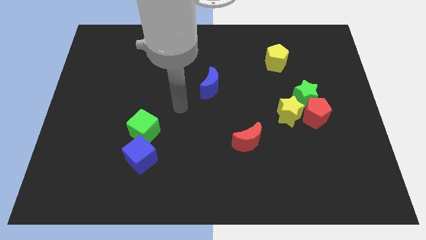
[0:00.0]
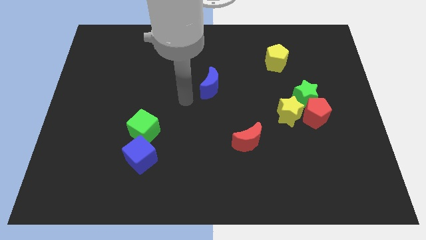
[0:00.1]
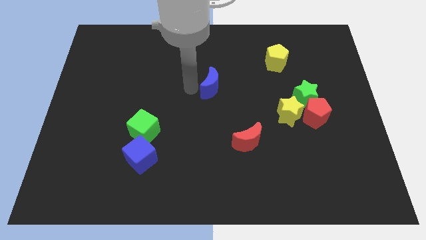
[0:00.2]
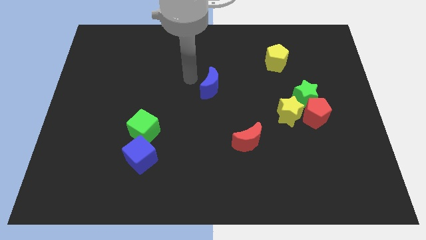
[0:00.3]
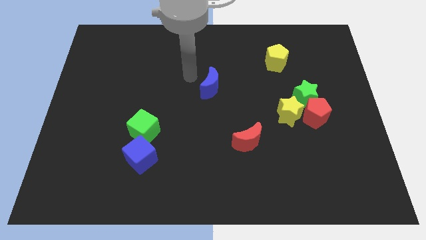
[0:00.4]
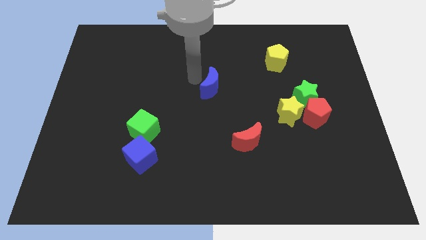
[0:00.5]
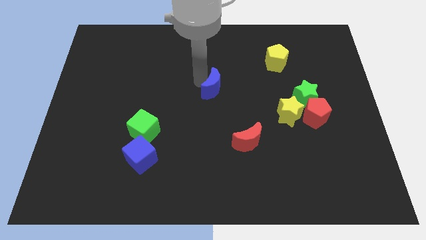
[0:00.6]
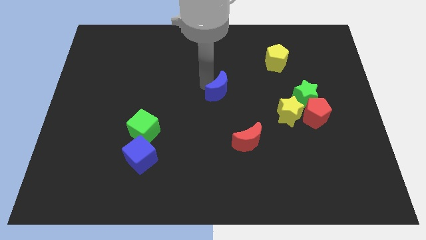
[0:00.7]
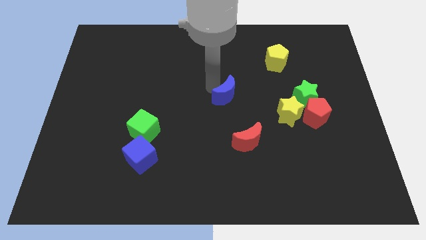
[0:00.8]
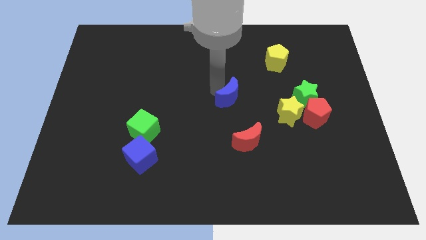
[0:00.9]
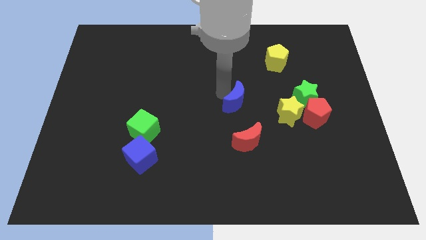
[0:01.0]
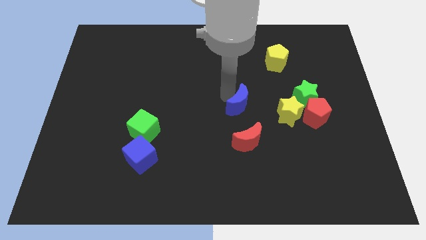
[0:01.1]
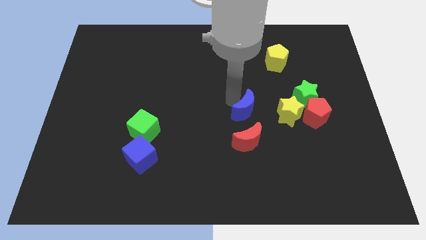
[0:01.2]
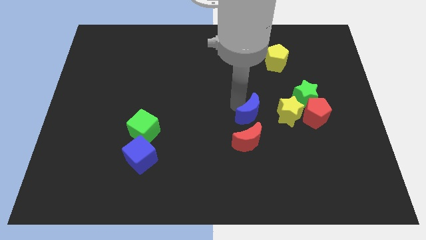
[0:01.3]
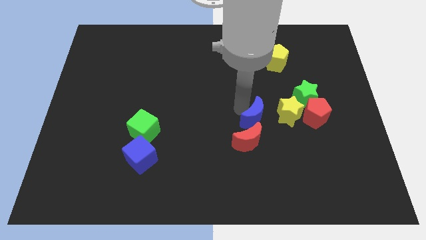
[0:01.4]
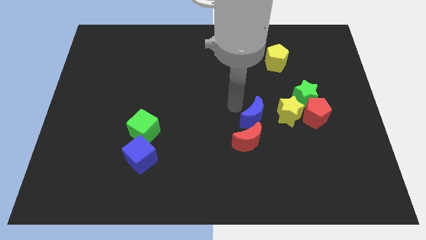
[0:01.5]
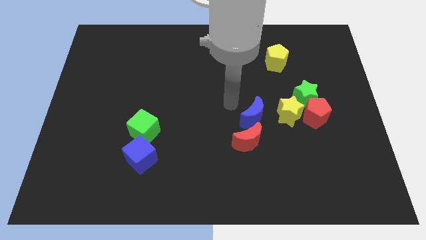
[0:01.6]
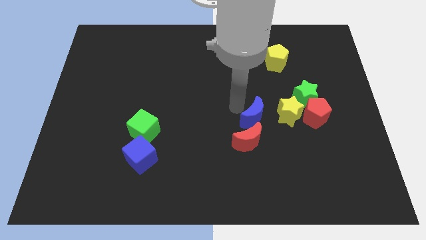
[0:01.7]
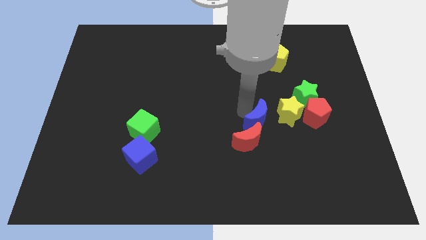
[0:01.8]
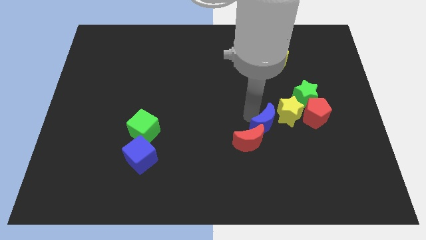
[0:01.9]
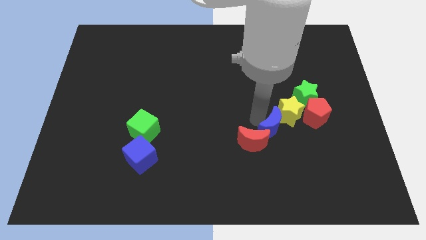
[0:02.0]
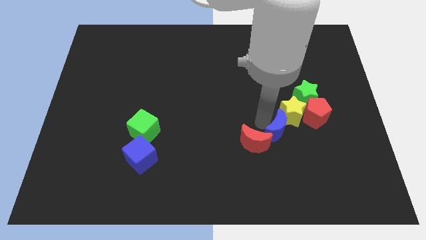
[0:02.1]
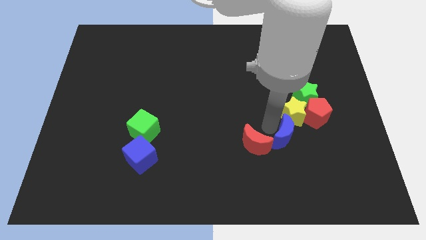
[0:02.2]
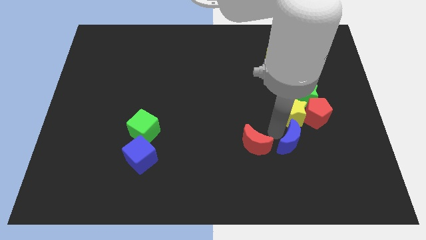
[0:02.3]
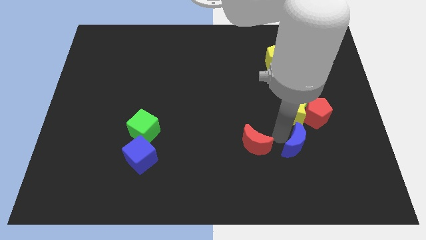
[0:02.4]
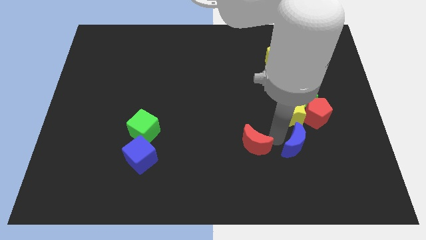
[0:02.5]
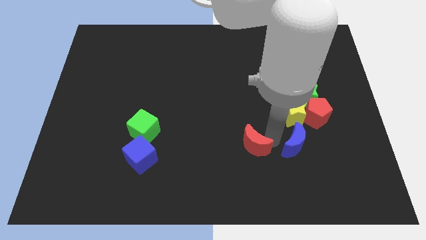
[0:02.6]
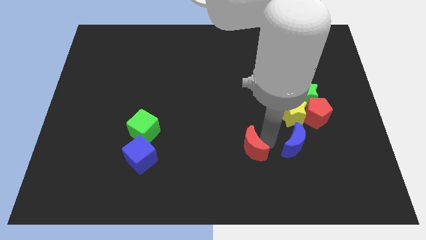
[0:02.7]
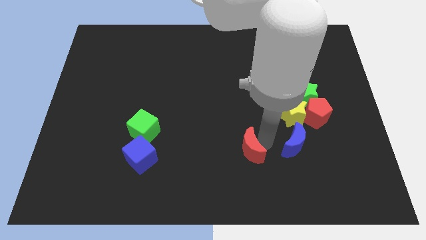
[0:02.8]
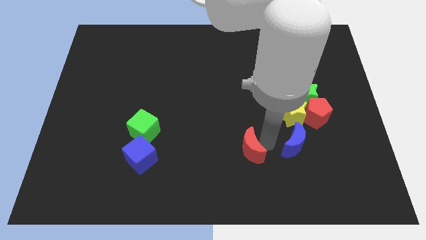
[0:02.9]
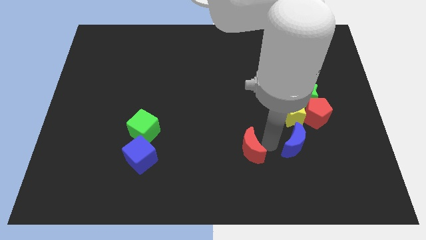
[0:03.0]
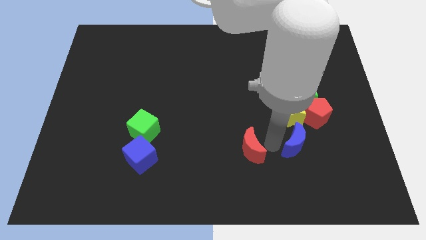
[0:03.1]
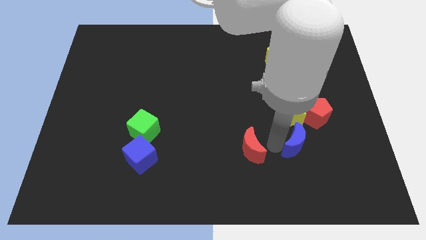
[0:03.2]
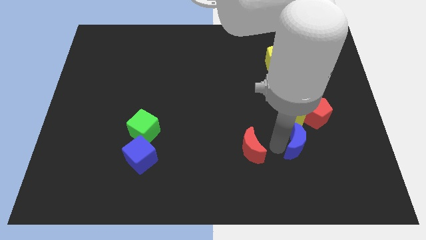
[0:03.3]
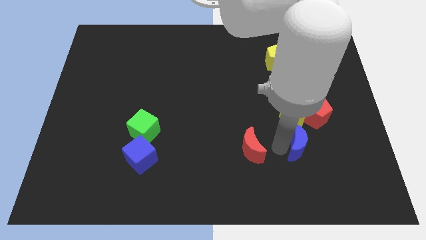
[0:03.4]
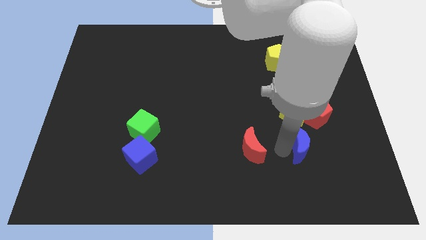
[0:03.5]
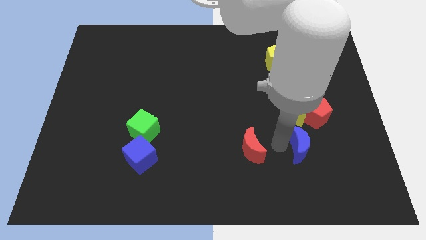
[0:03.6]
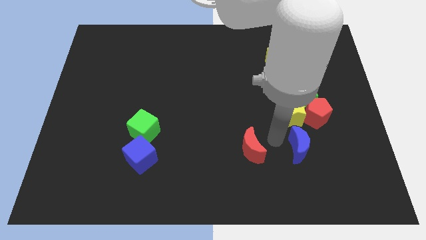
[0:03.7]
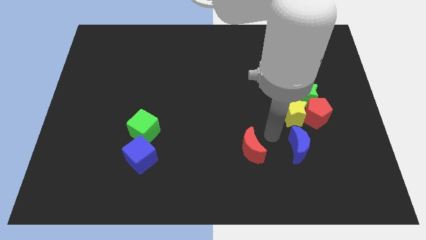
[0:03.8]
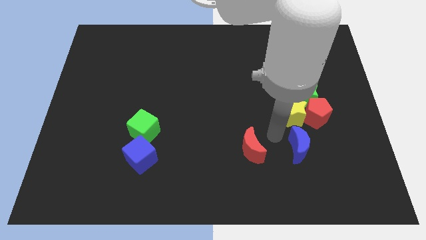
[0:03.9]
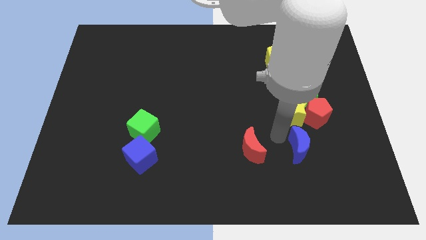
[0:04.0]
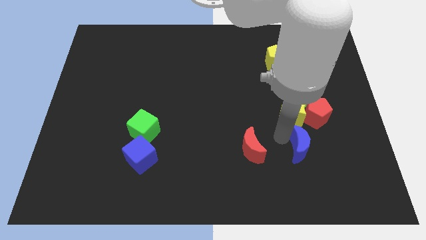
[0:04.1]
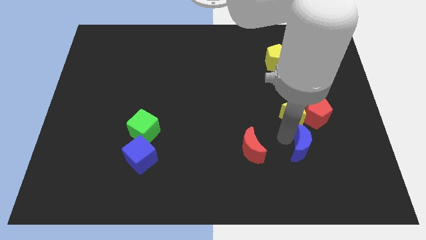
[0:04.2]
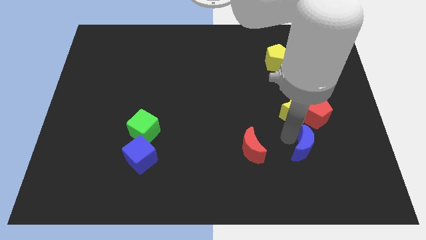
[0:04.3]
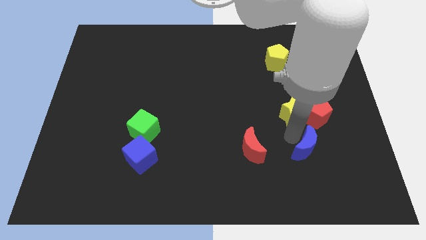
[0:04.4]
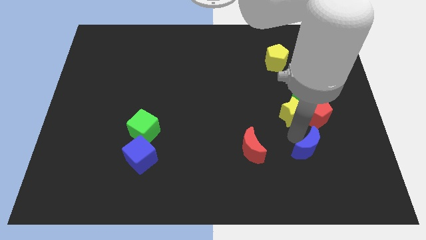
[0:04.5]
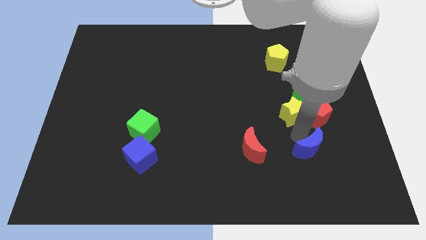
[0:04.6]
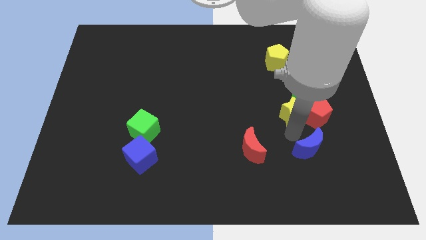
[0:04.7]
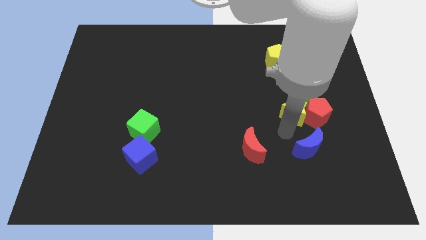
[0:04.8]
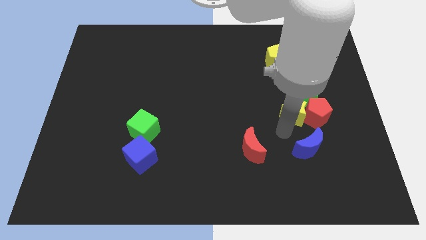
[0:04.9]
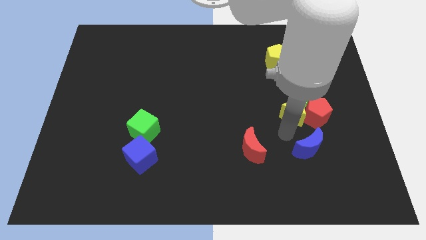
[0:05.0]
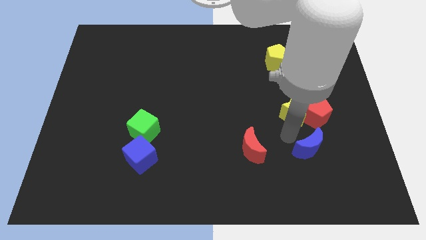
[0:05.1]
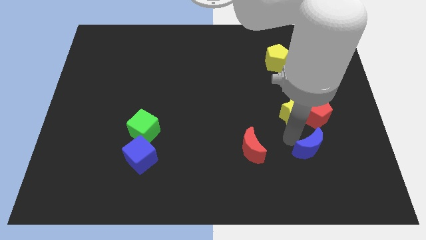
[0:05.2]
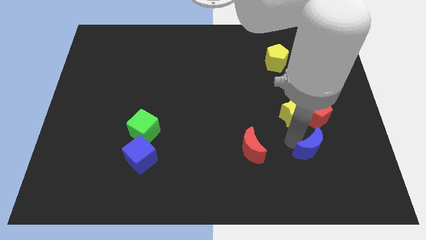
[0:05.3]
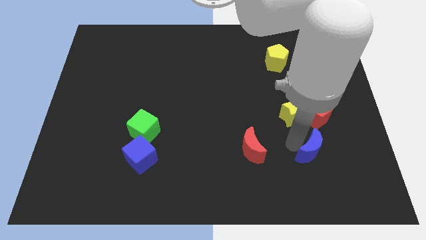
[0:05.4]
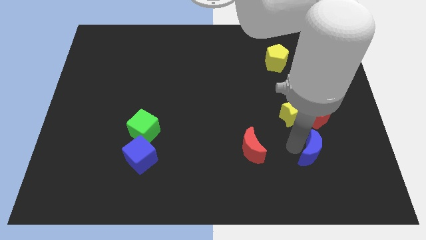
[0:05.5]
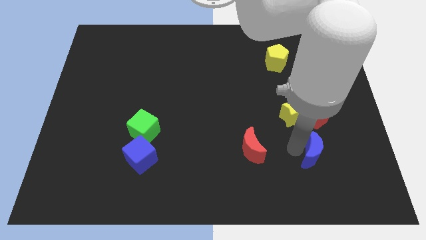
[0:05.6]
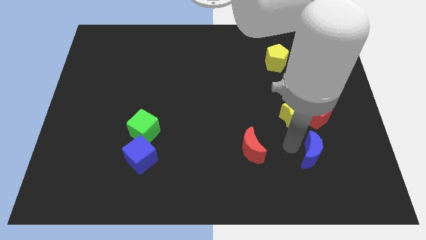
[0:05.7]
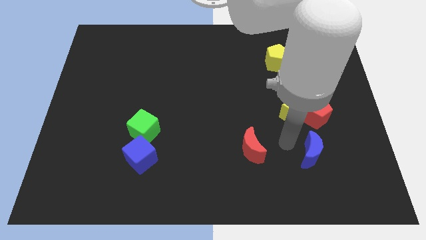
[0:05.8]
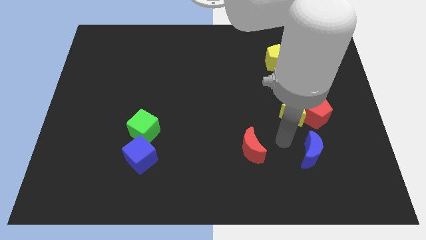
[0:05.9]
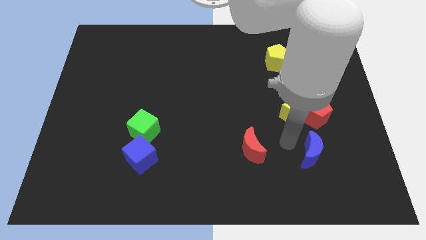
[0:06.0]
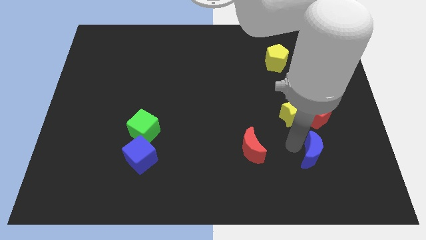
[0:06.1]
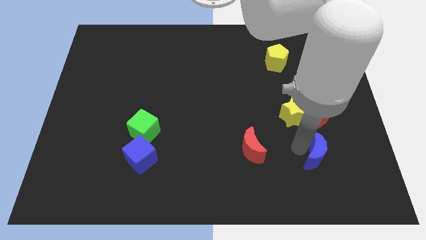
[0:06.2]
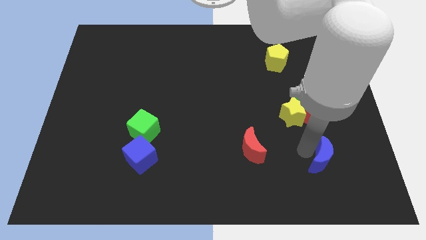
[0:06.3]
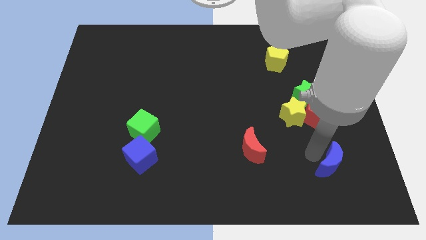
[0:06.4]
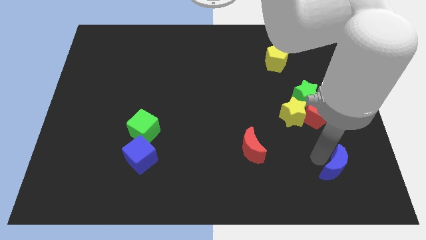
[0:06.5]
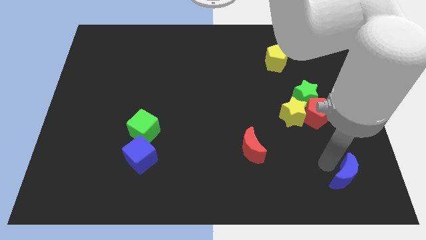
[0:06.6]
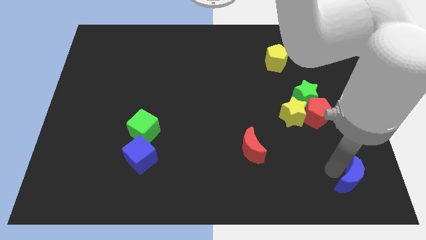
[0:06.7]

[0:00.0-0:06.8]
slide the blue moon to the bottom right corner

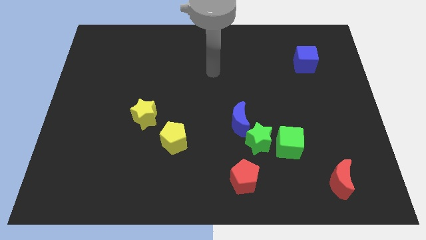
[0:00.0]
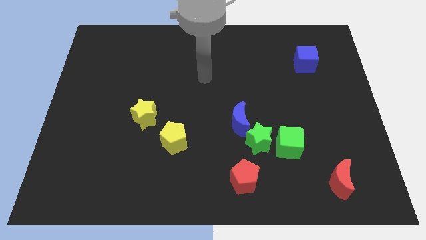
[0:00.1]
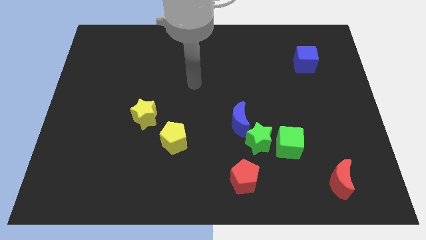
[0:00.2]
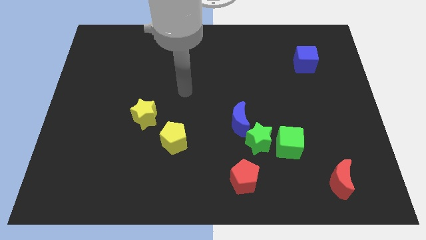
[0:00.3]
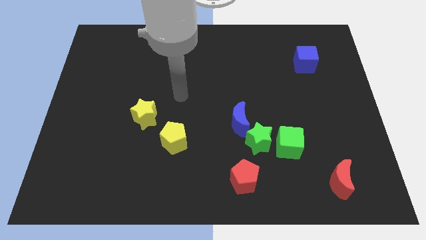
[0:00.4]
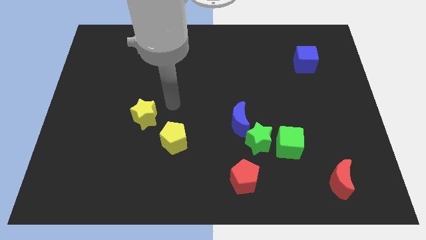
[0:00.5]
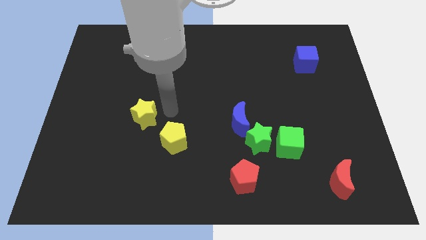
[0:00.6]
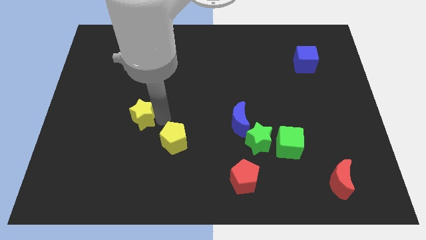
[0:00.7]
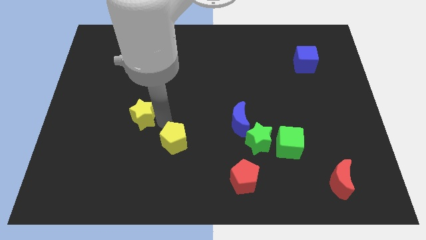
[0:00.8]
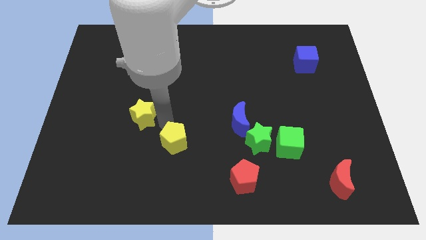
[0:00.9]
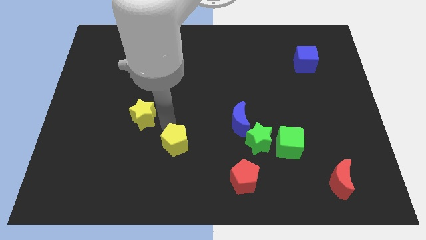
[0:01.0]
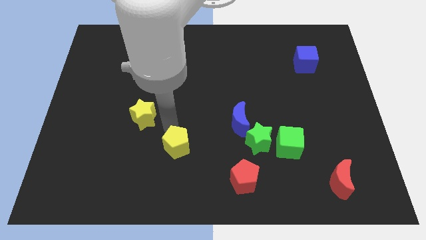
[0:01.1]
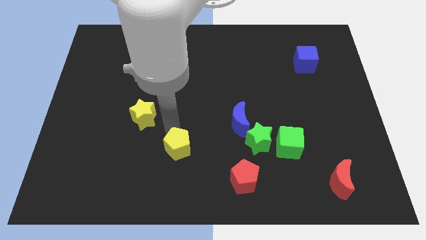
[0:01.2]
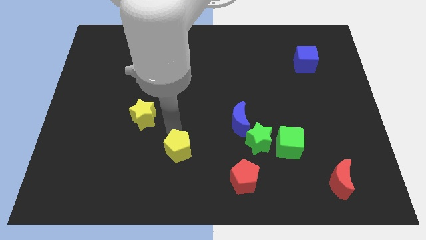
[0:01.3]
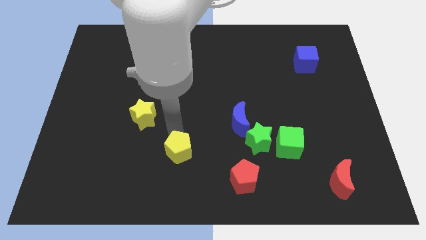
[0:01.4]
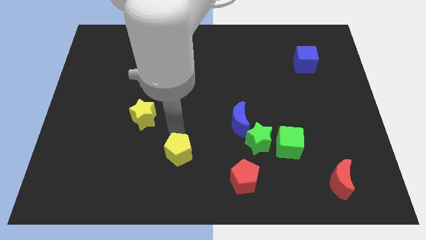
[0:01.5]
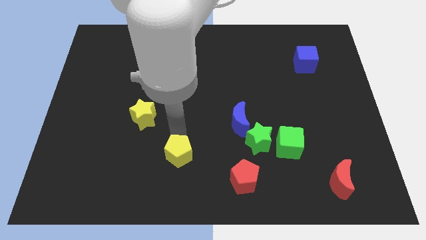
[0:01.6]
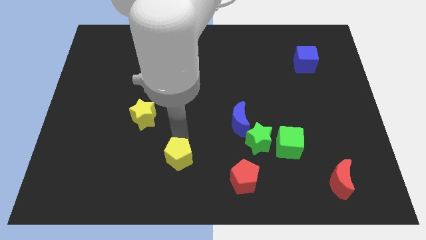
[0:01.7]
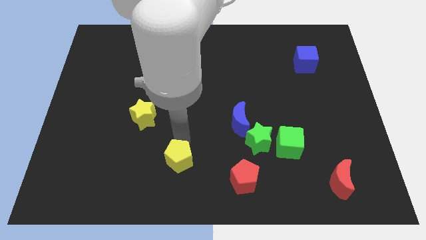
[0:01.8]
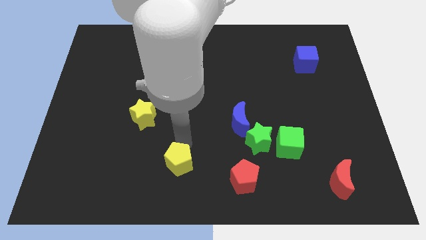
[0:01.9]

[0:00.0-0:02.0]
put the yellow pentagon to the bottom
